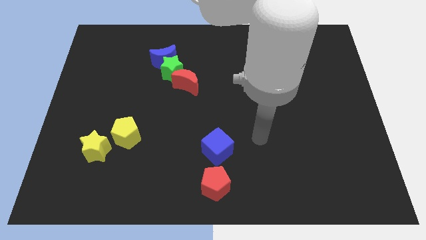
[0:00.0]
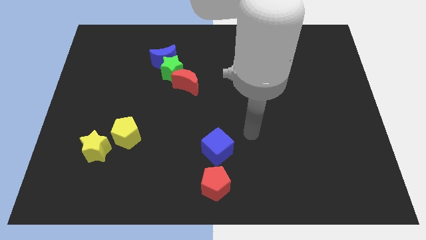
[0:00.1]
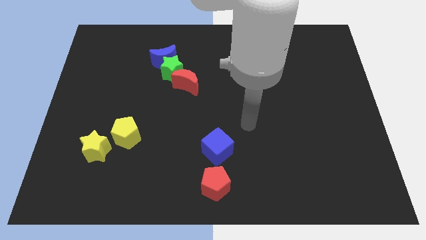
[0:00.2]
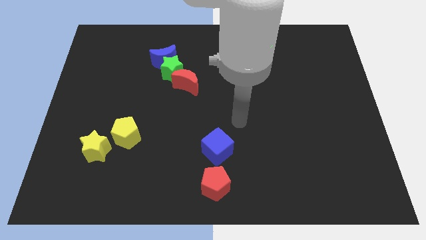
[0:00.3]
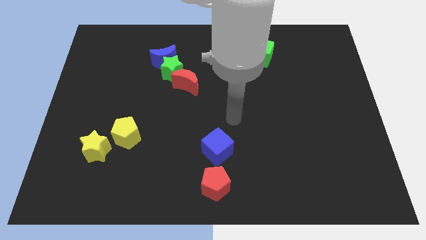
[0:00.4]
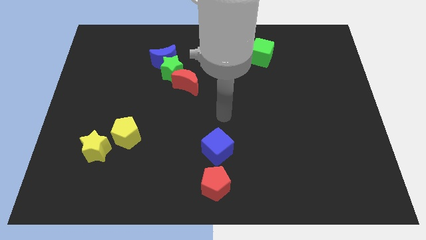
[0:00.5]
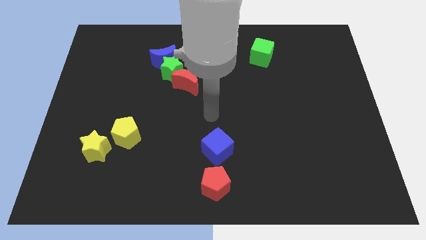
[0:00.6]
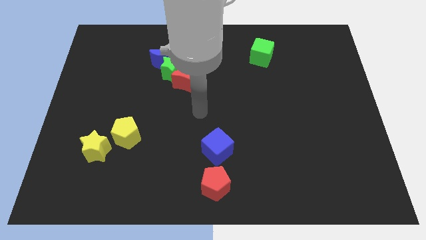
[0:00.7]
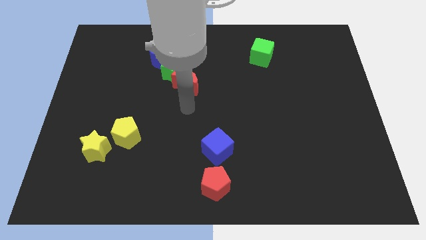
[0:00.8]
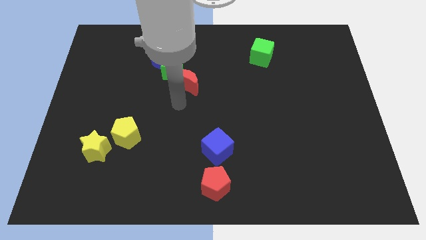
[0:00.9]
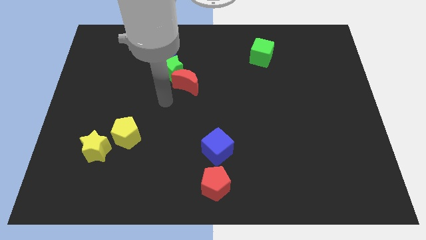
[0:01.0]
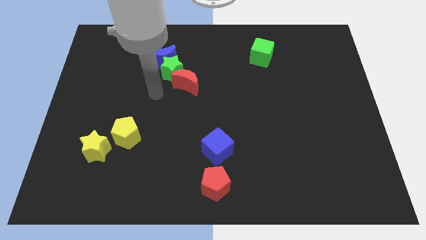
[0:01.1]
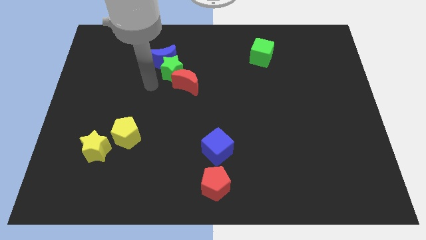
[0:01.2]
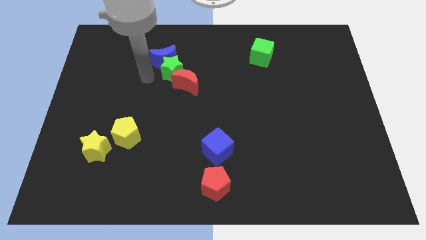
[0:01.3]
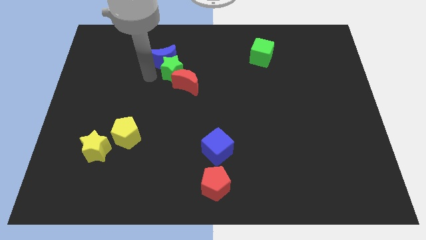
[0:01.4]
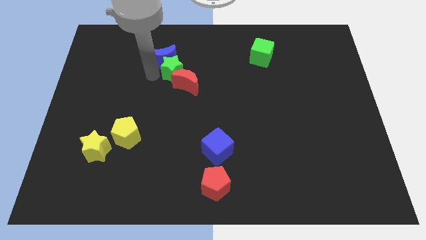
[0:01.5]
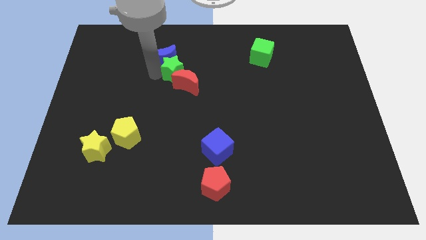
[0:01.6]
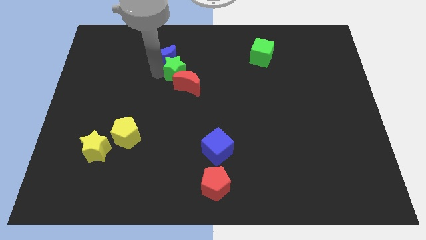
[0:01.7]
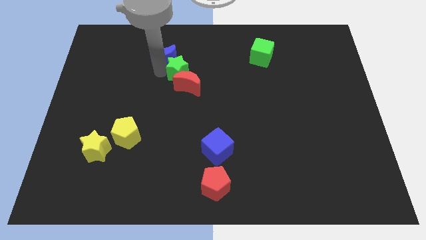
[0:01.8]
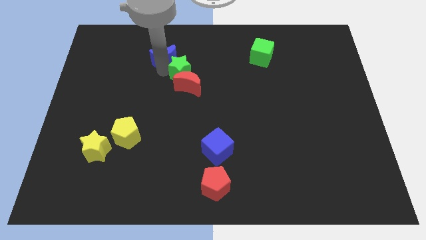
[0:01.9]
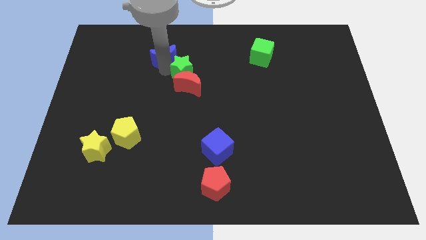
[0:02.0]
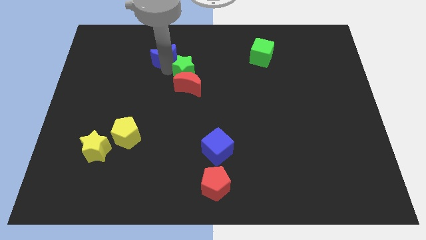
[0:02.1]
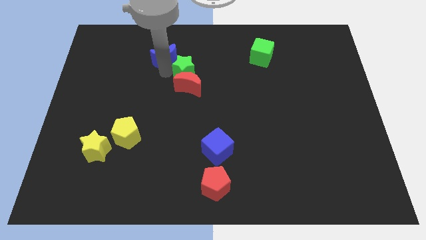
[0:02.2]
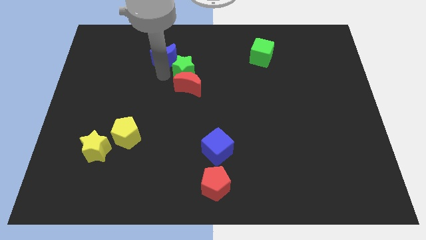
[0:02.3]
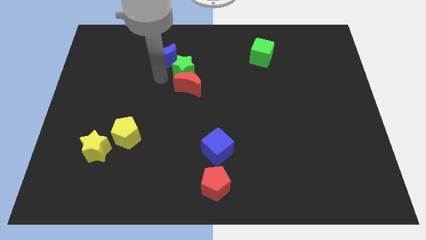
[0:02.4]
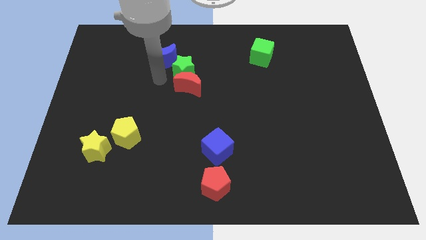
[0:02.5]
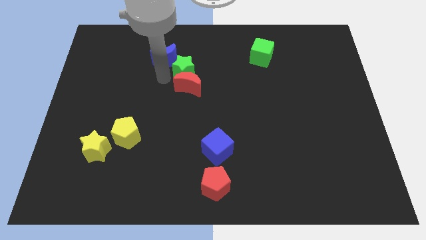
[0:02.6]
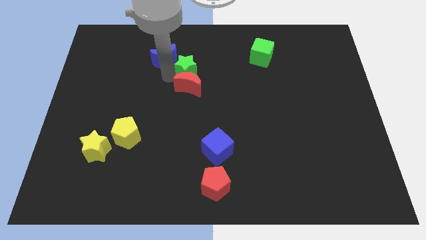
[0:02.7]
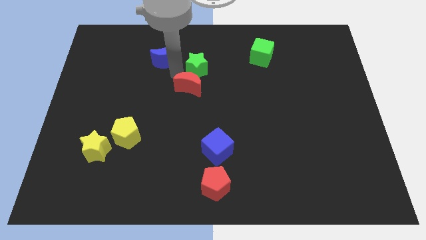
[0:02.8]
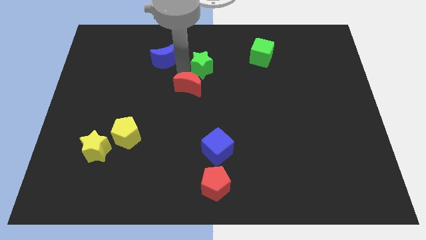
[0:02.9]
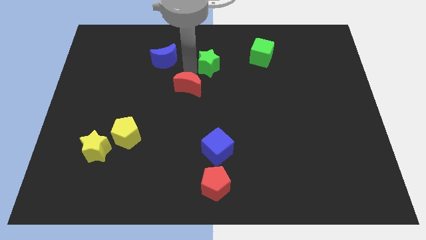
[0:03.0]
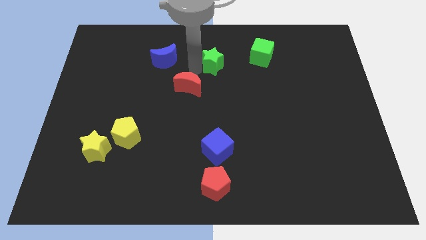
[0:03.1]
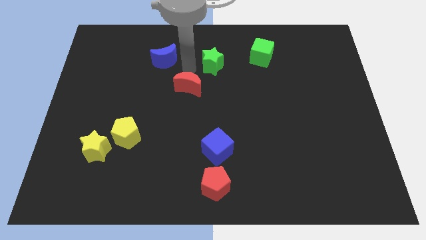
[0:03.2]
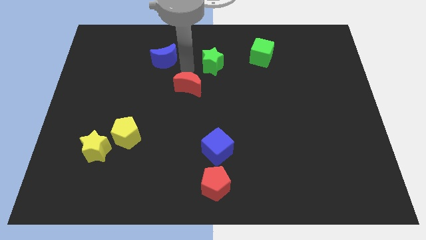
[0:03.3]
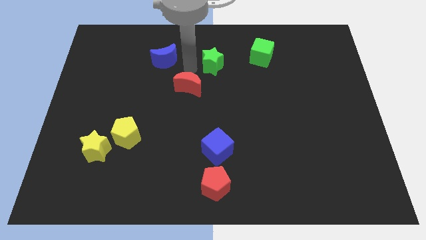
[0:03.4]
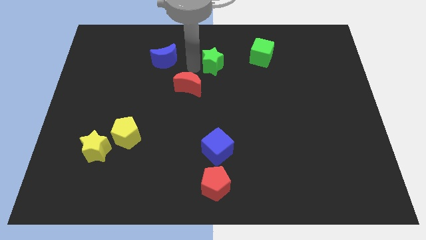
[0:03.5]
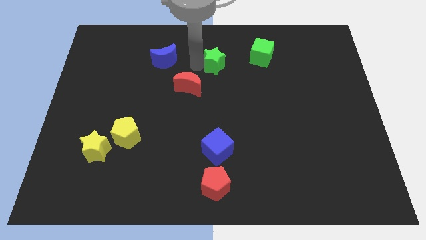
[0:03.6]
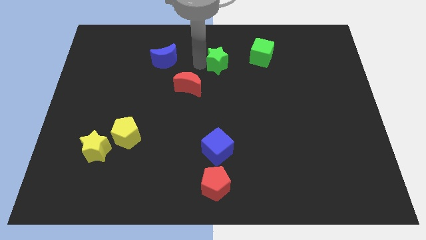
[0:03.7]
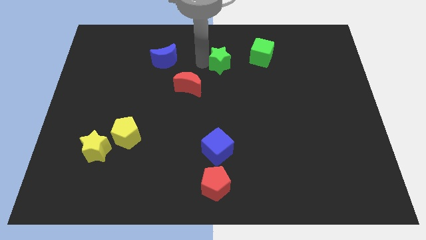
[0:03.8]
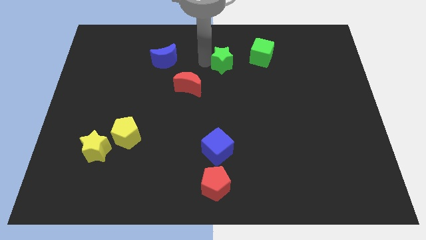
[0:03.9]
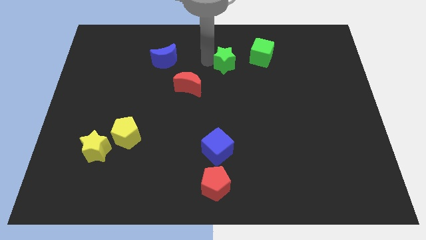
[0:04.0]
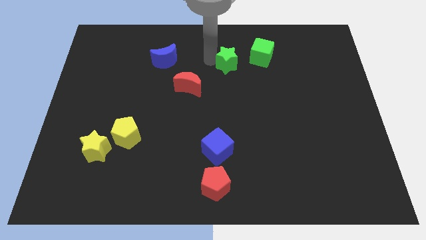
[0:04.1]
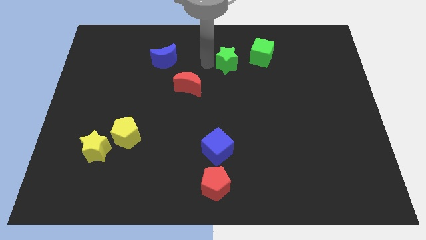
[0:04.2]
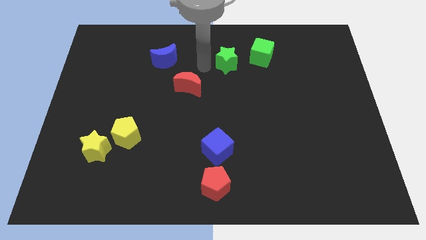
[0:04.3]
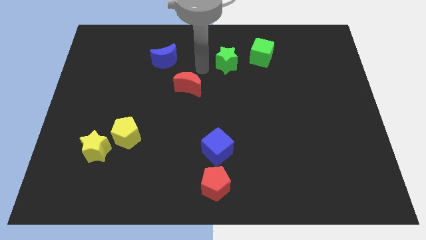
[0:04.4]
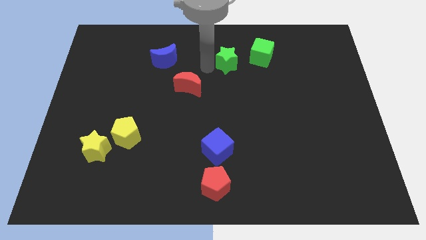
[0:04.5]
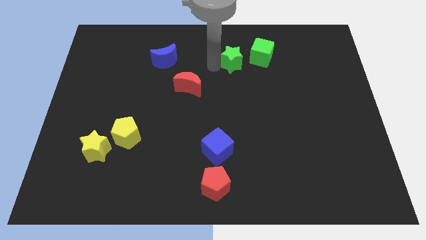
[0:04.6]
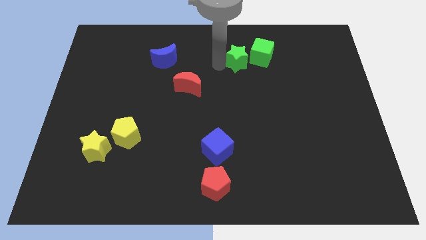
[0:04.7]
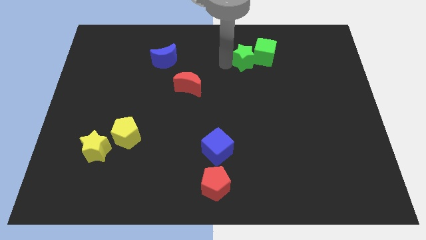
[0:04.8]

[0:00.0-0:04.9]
move the green star close to the green cube

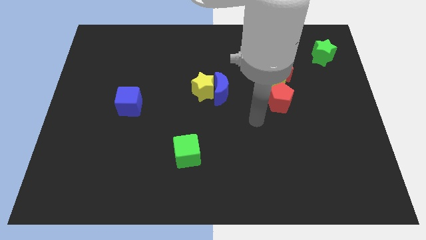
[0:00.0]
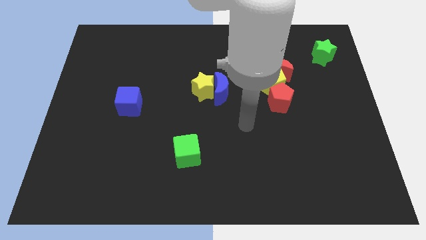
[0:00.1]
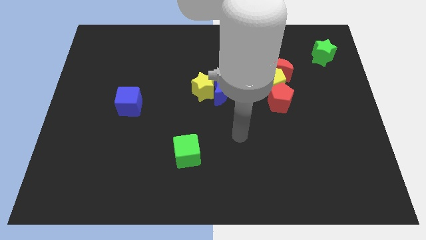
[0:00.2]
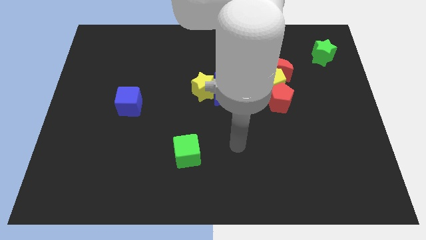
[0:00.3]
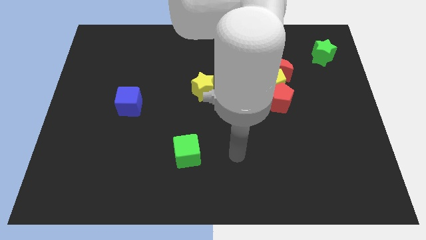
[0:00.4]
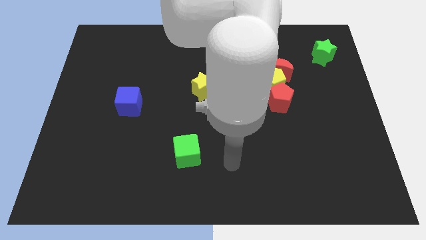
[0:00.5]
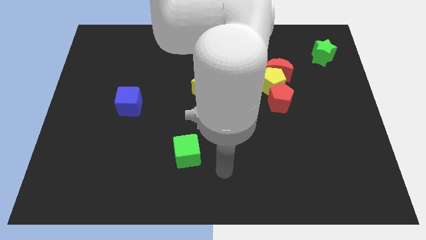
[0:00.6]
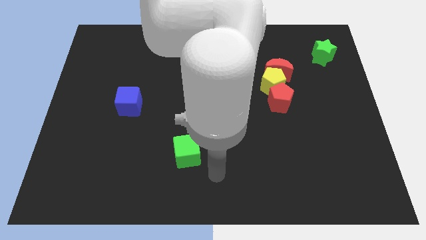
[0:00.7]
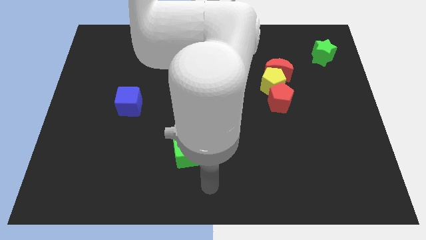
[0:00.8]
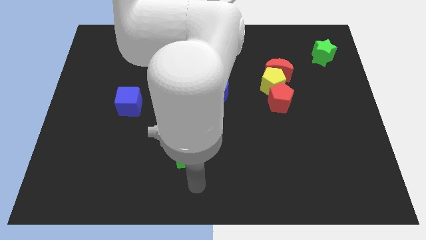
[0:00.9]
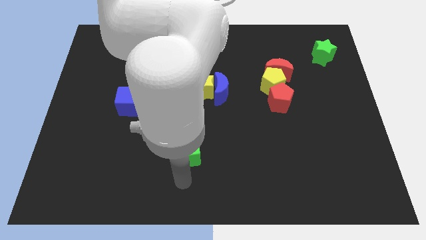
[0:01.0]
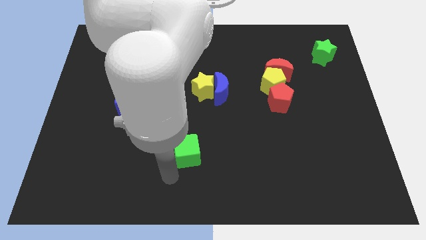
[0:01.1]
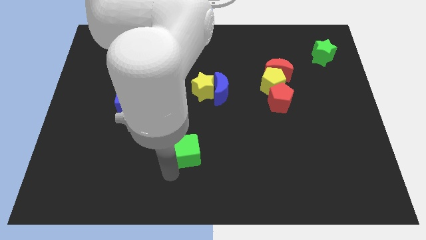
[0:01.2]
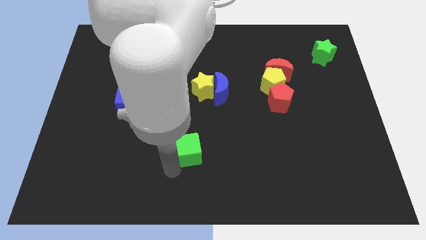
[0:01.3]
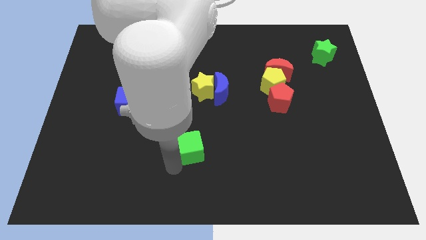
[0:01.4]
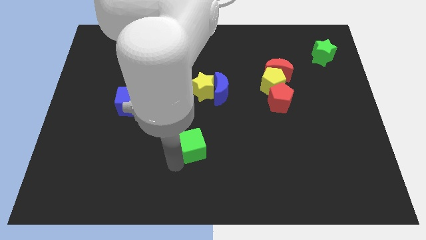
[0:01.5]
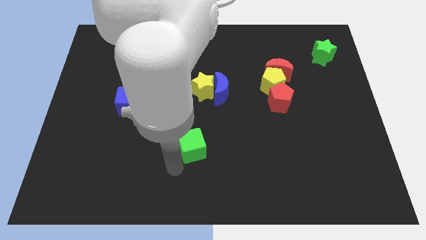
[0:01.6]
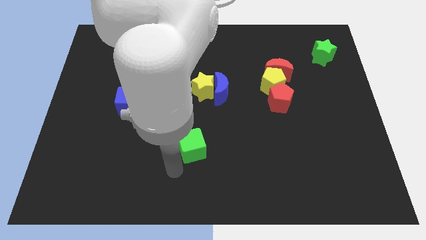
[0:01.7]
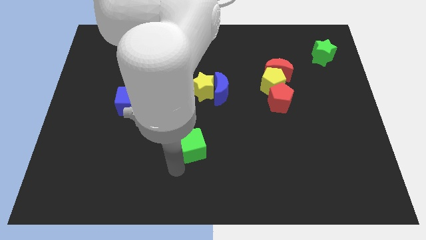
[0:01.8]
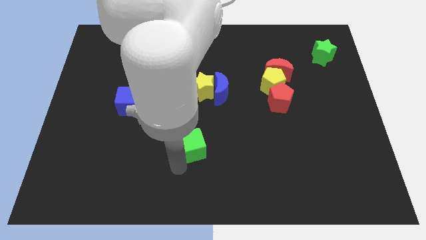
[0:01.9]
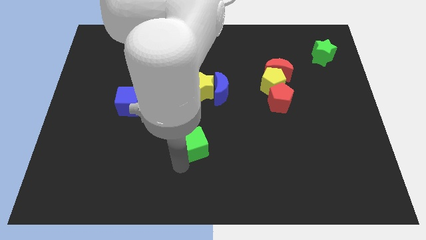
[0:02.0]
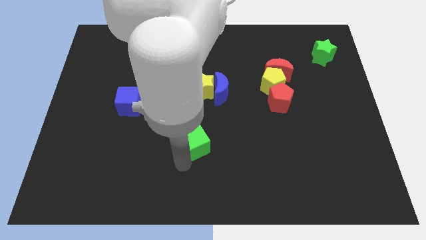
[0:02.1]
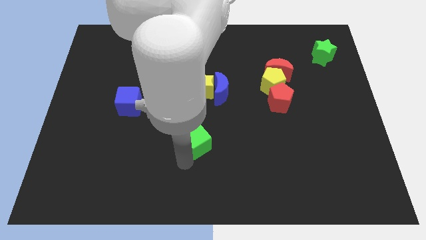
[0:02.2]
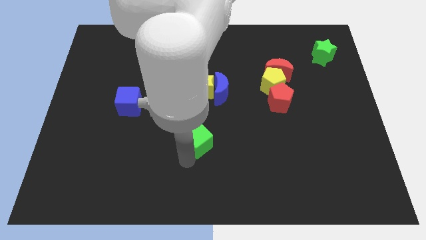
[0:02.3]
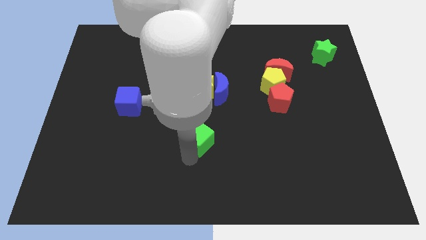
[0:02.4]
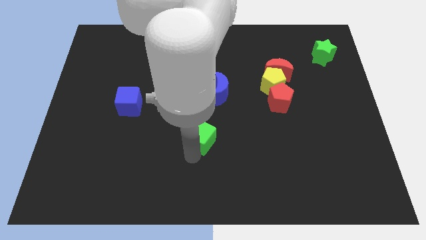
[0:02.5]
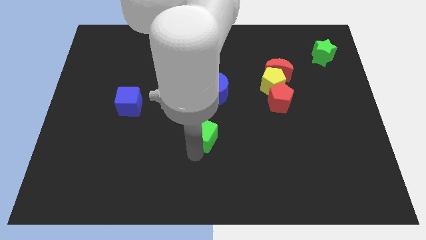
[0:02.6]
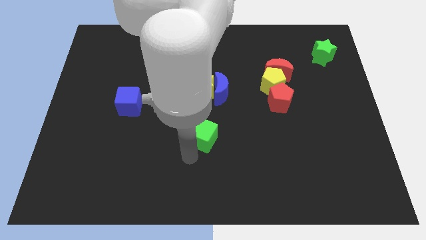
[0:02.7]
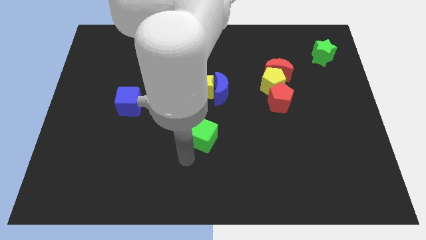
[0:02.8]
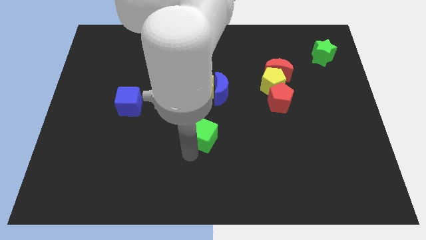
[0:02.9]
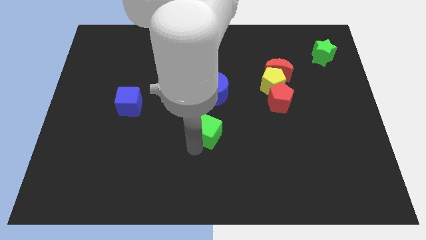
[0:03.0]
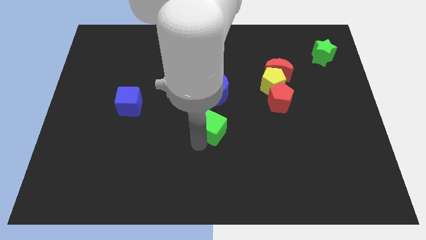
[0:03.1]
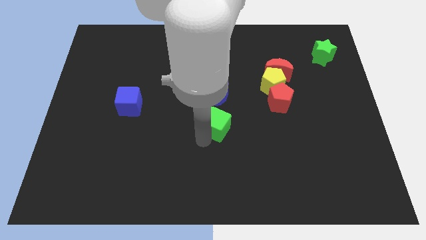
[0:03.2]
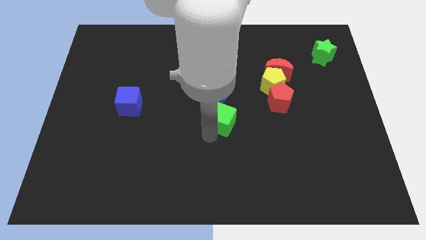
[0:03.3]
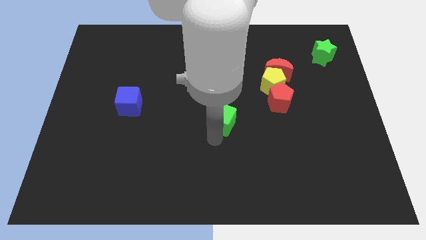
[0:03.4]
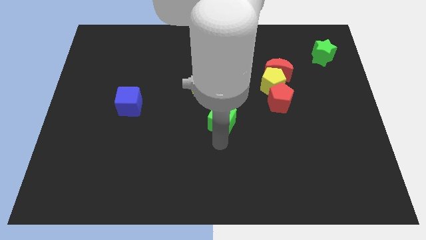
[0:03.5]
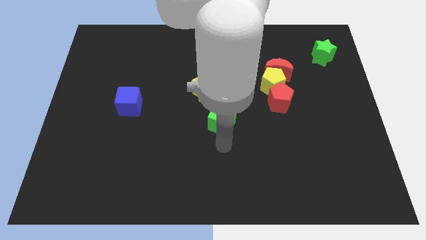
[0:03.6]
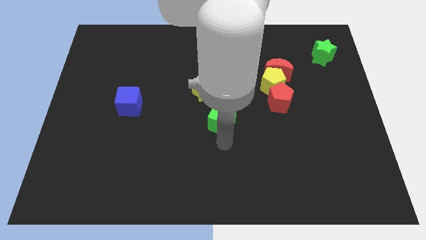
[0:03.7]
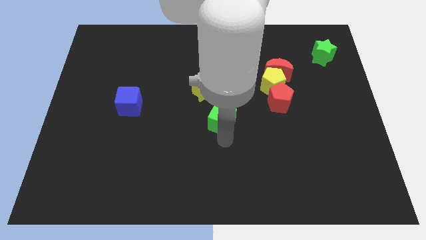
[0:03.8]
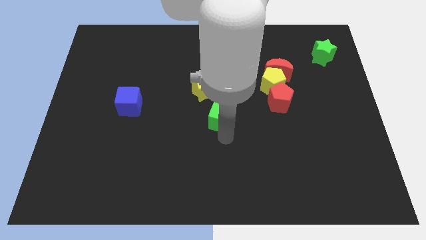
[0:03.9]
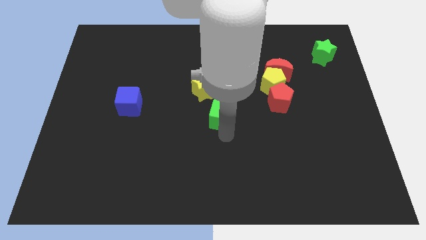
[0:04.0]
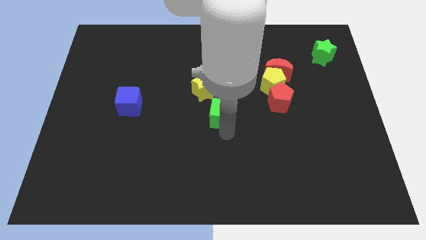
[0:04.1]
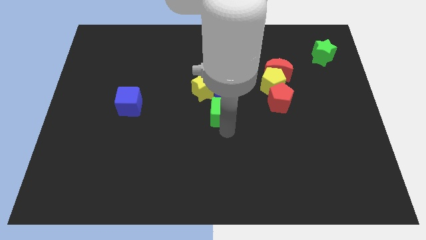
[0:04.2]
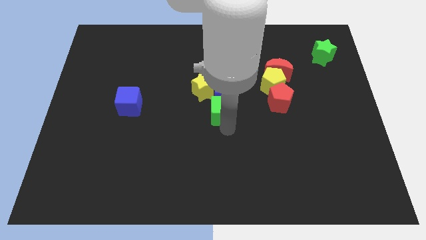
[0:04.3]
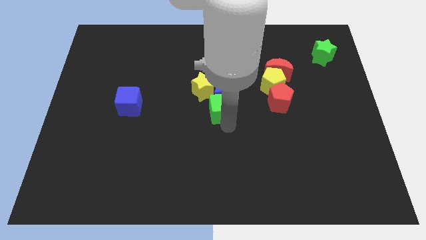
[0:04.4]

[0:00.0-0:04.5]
put the green cube close to the blue moon
